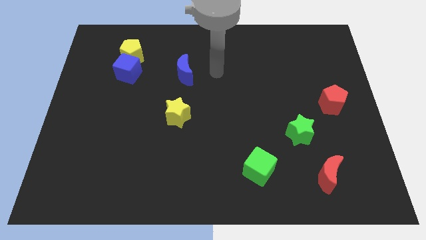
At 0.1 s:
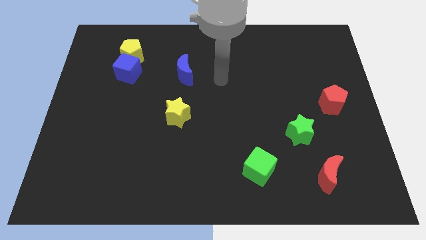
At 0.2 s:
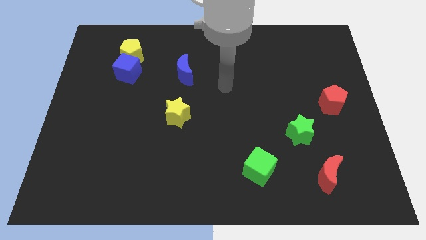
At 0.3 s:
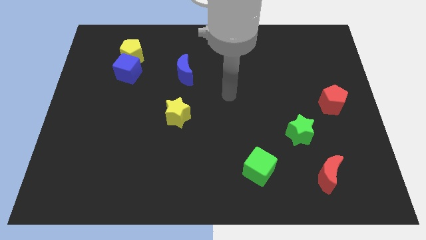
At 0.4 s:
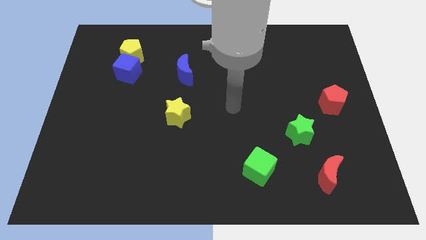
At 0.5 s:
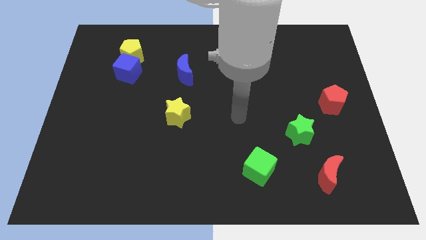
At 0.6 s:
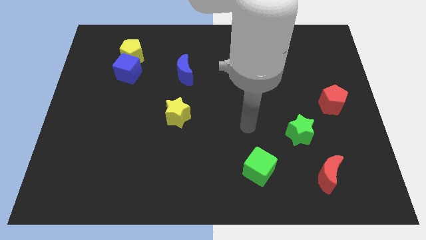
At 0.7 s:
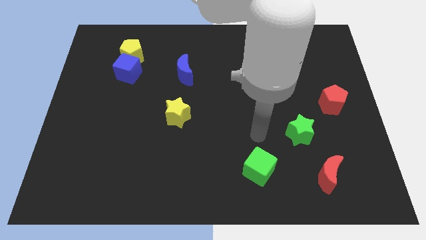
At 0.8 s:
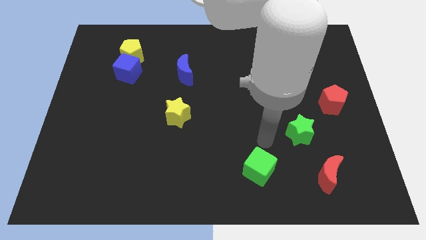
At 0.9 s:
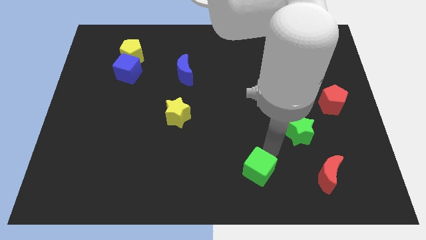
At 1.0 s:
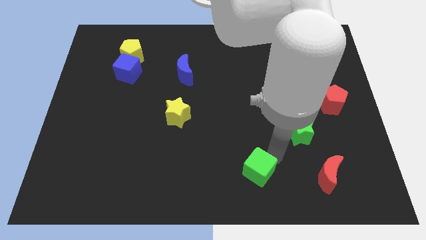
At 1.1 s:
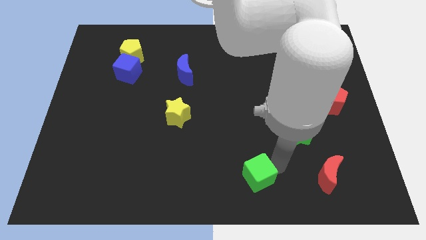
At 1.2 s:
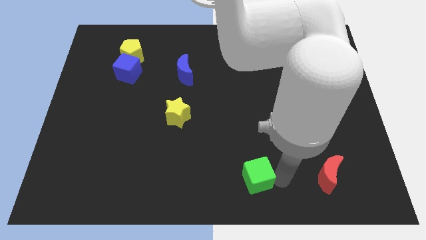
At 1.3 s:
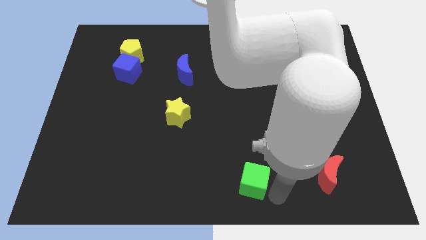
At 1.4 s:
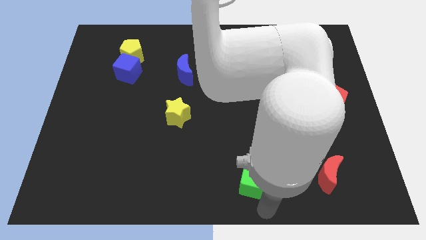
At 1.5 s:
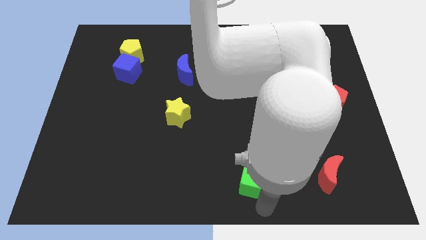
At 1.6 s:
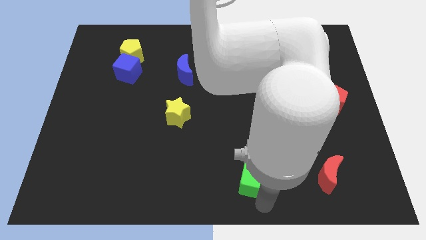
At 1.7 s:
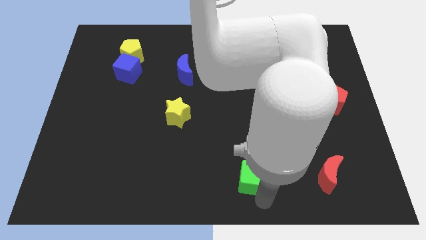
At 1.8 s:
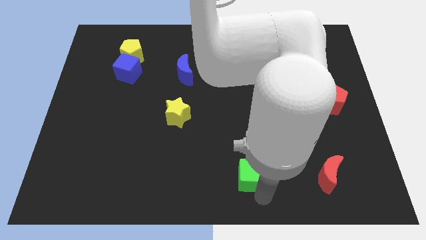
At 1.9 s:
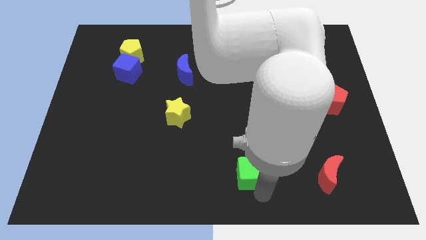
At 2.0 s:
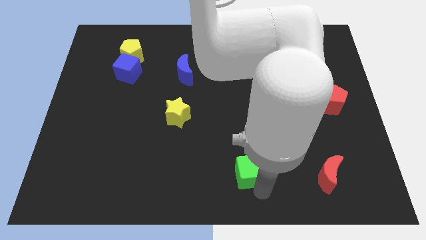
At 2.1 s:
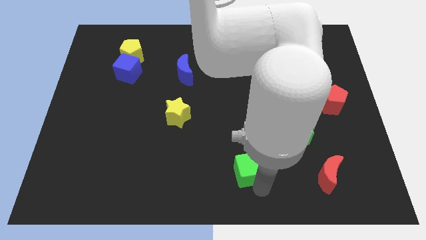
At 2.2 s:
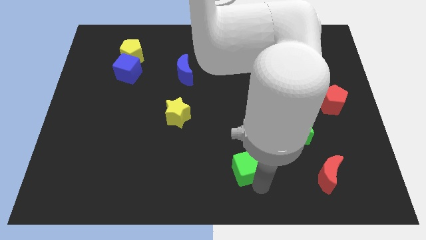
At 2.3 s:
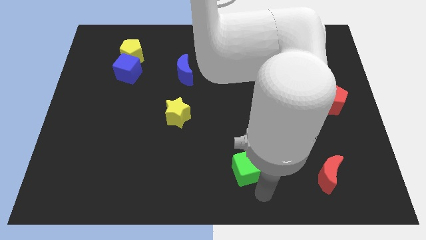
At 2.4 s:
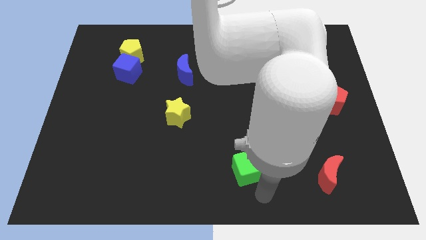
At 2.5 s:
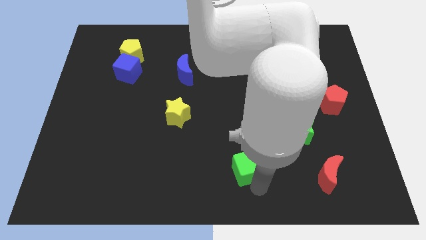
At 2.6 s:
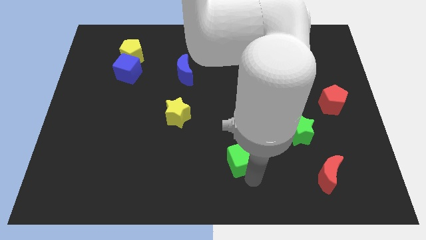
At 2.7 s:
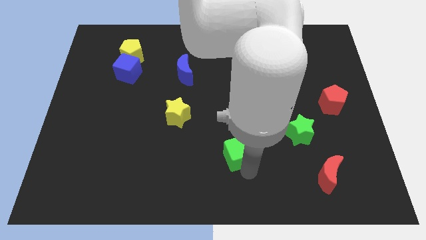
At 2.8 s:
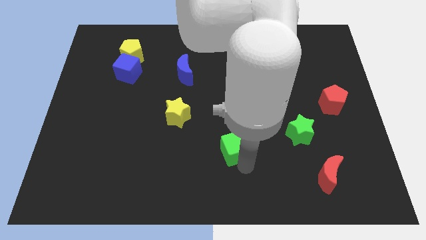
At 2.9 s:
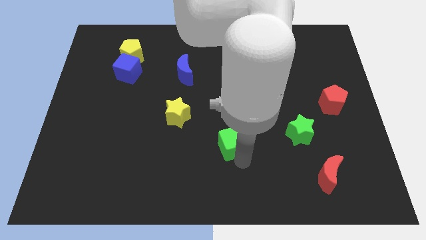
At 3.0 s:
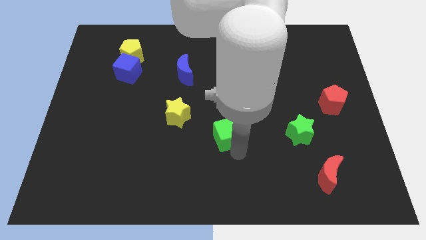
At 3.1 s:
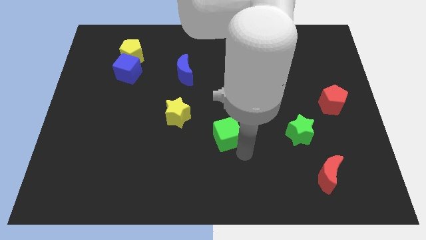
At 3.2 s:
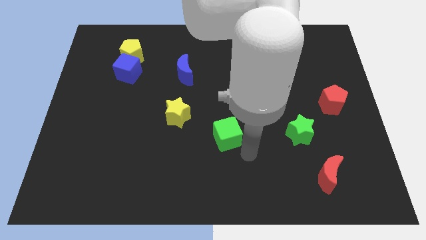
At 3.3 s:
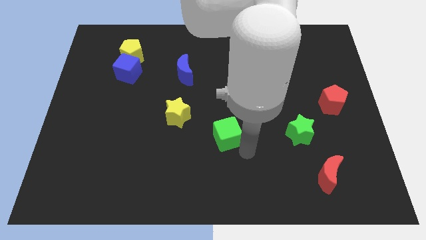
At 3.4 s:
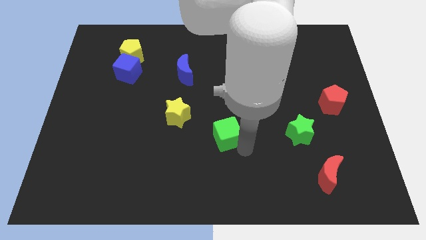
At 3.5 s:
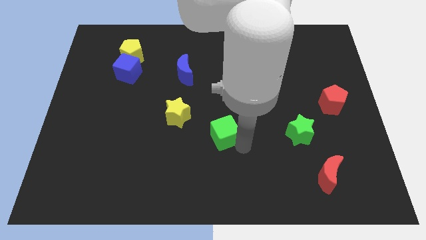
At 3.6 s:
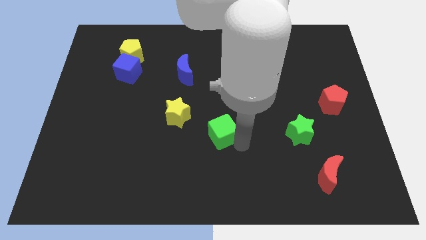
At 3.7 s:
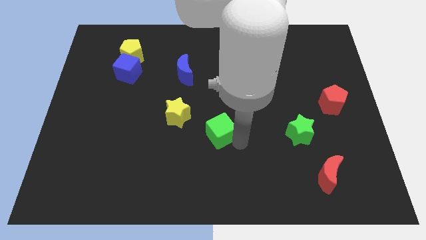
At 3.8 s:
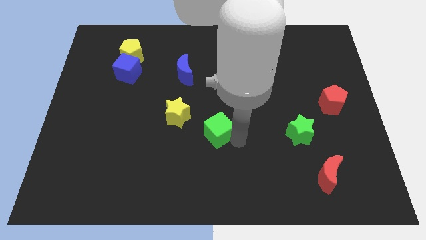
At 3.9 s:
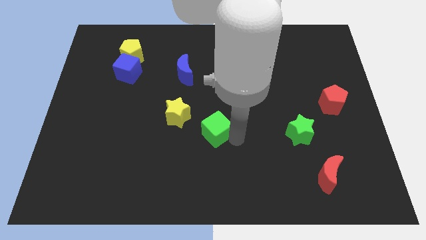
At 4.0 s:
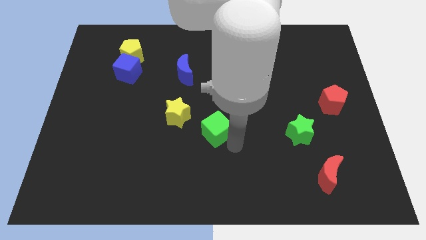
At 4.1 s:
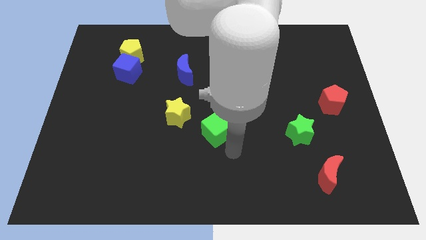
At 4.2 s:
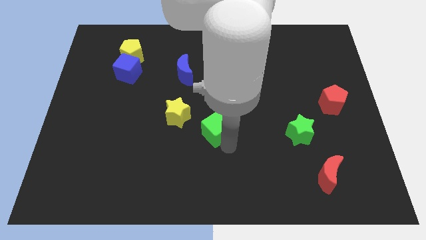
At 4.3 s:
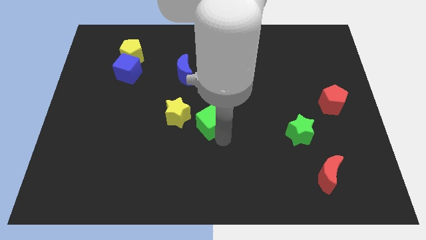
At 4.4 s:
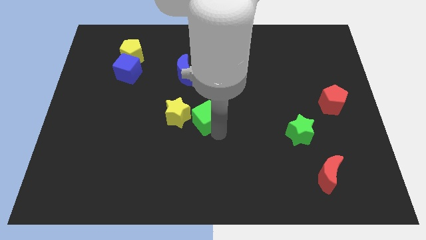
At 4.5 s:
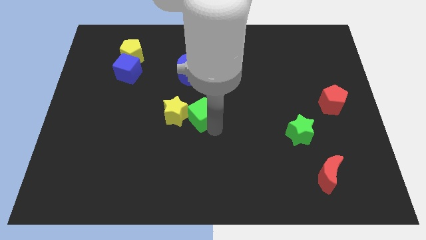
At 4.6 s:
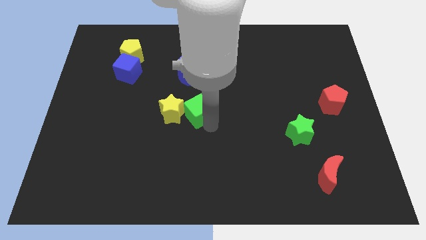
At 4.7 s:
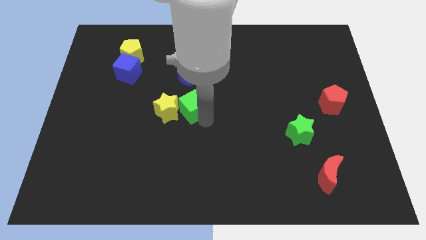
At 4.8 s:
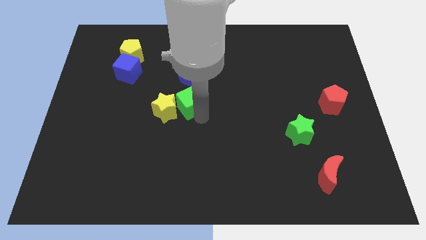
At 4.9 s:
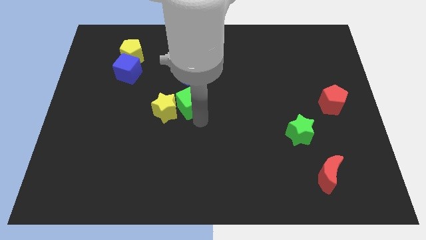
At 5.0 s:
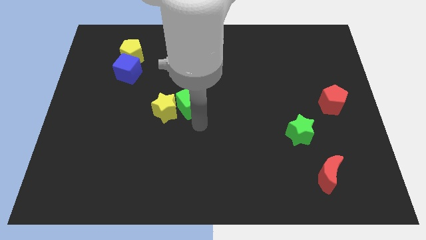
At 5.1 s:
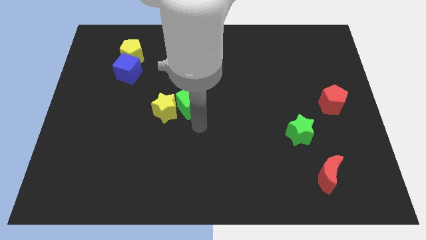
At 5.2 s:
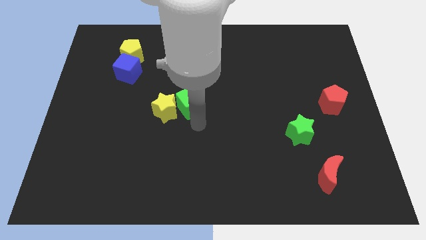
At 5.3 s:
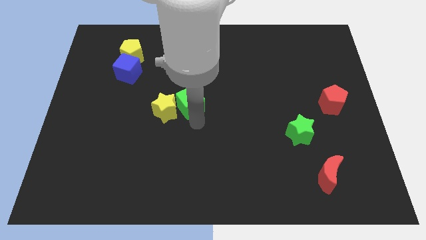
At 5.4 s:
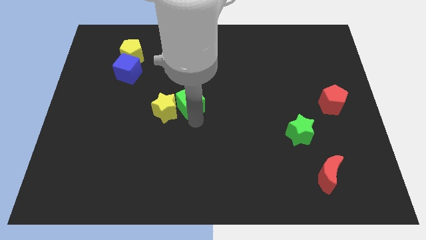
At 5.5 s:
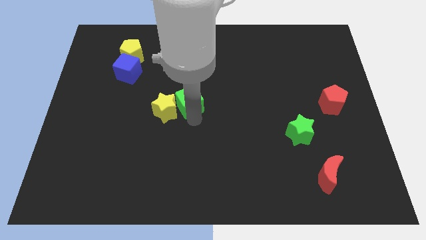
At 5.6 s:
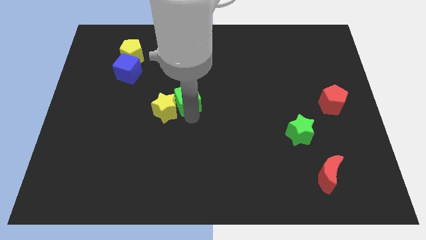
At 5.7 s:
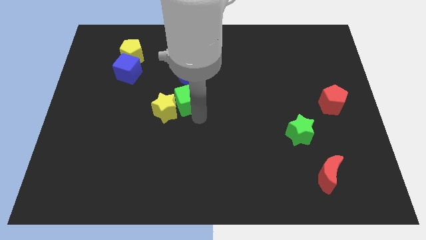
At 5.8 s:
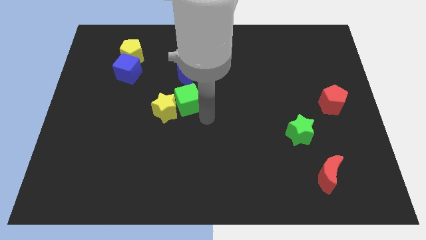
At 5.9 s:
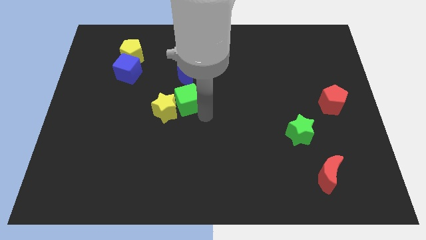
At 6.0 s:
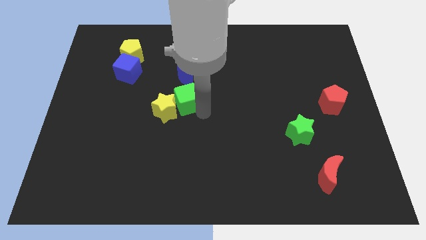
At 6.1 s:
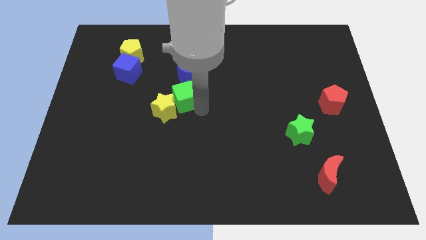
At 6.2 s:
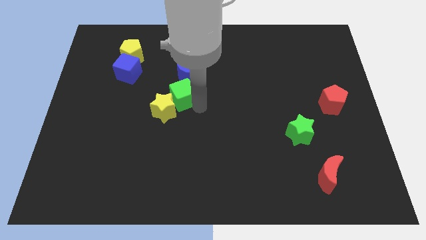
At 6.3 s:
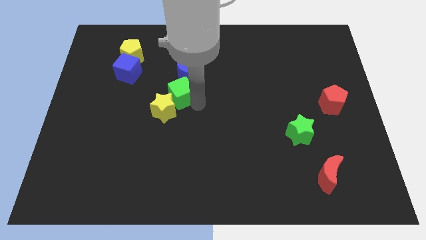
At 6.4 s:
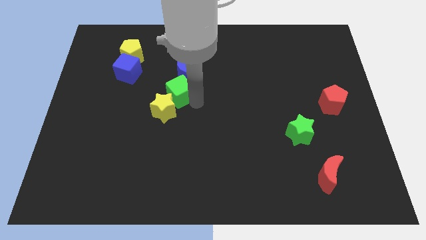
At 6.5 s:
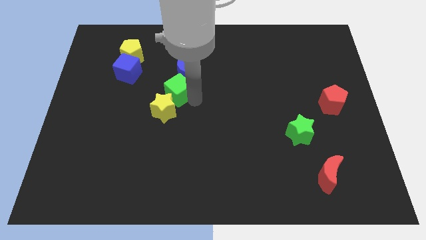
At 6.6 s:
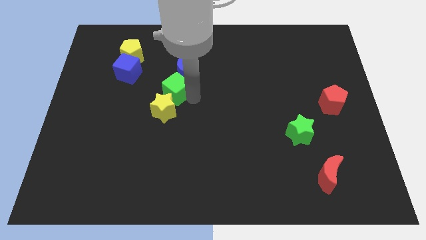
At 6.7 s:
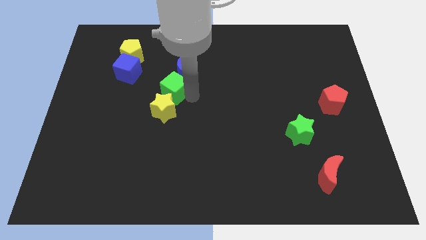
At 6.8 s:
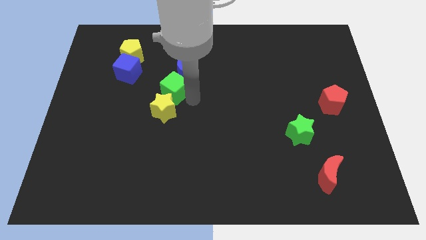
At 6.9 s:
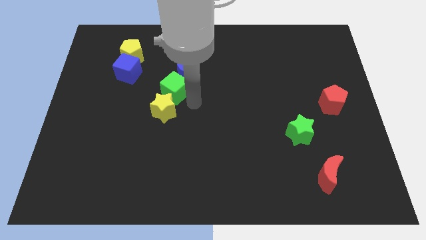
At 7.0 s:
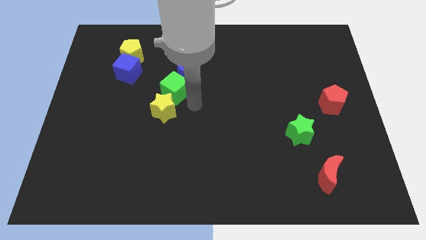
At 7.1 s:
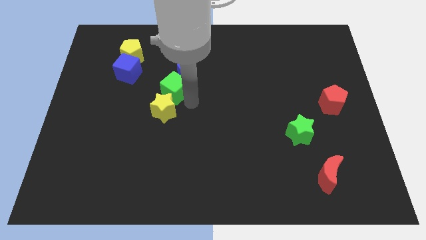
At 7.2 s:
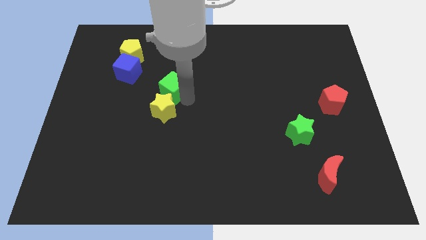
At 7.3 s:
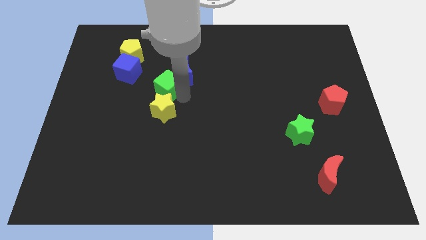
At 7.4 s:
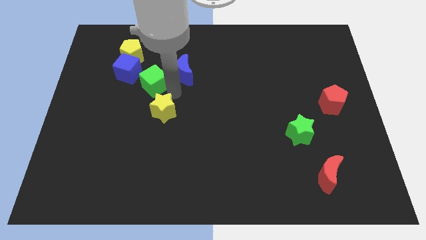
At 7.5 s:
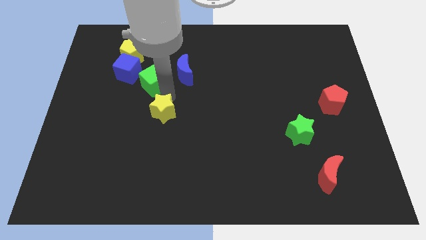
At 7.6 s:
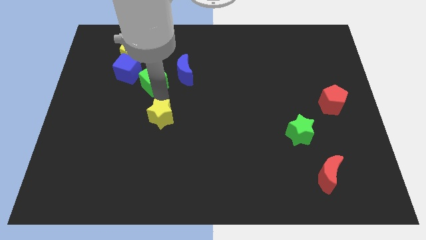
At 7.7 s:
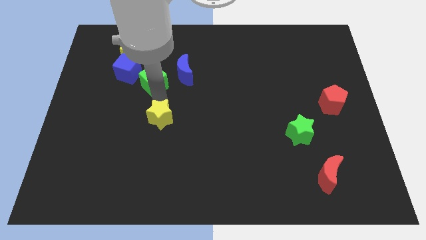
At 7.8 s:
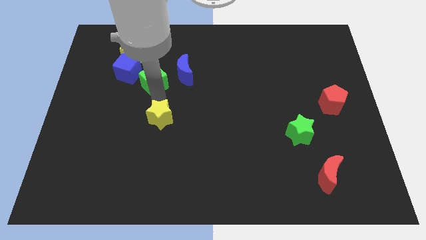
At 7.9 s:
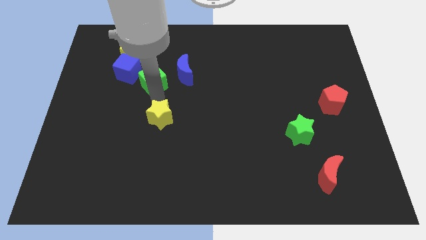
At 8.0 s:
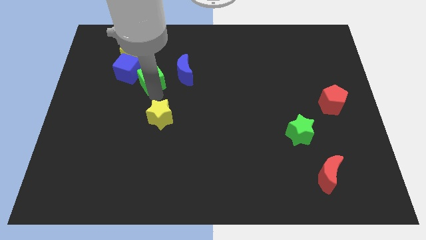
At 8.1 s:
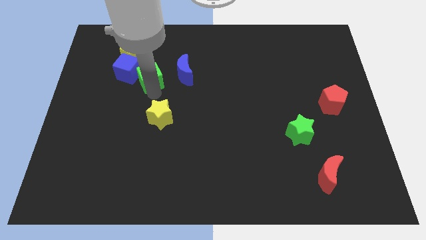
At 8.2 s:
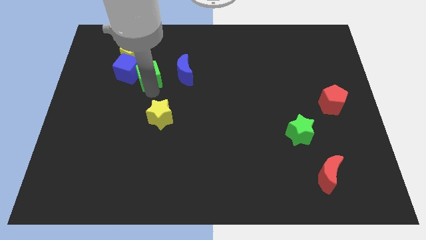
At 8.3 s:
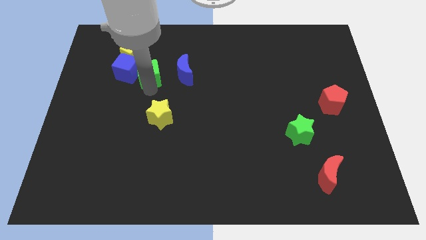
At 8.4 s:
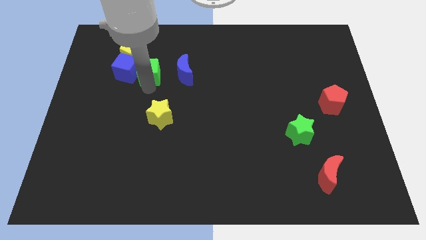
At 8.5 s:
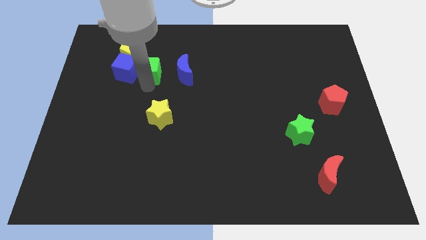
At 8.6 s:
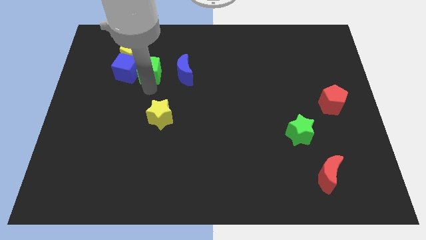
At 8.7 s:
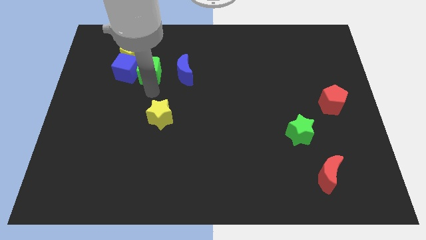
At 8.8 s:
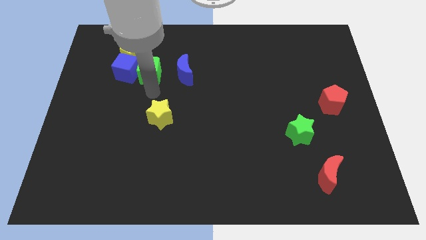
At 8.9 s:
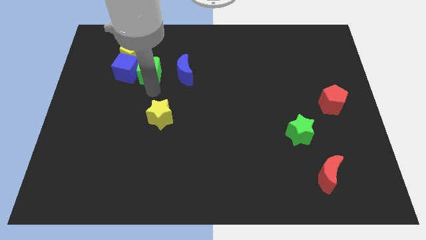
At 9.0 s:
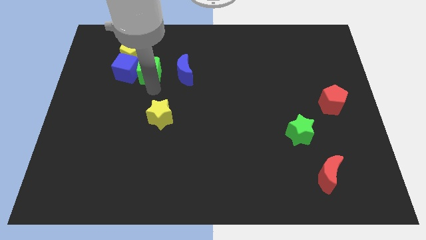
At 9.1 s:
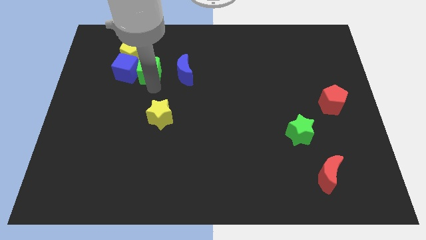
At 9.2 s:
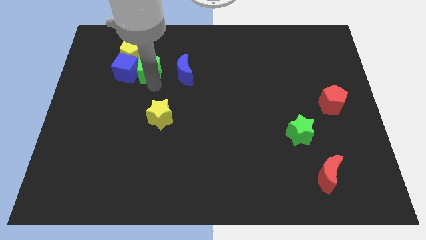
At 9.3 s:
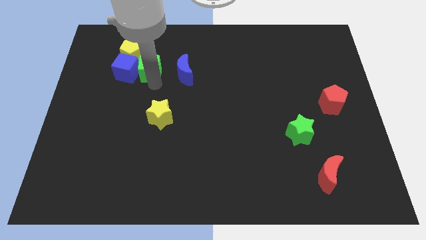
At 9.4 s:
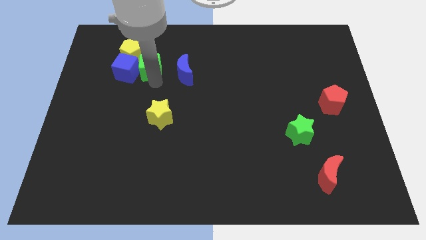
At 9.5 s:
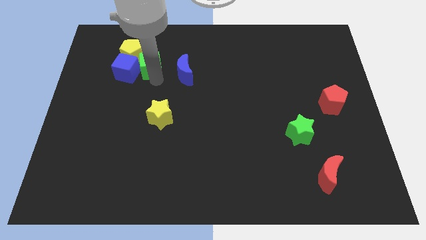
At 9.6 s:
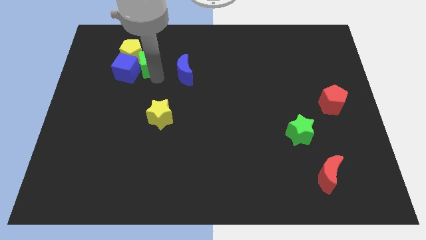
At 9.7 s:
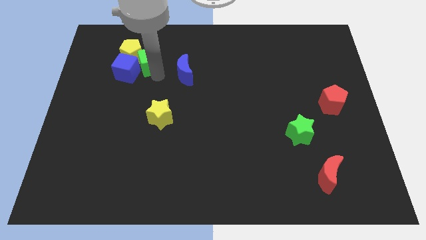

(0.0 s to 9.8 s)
put the green cube close to the yellow pentagon
